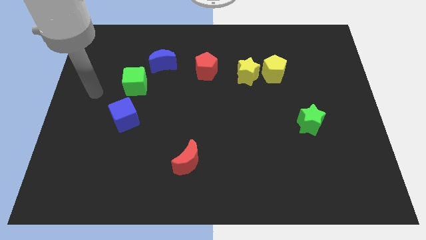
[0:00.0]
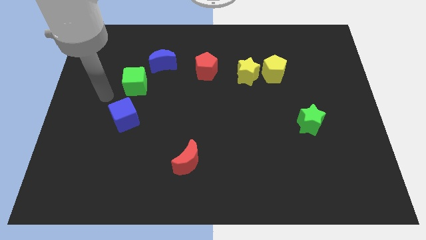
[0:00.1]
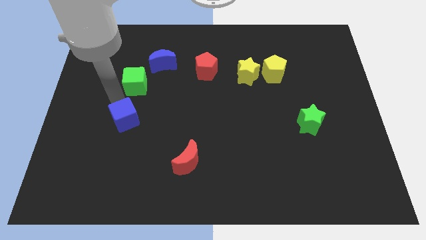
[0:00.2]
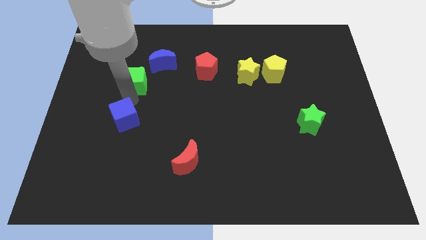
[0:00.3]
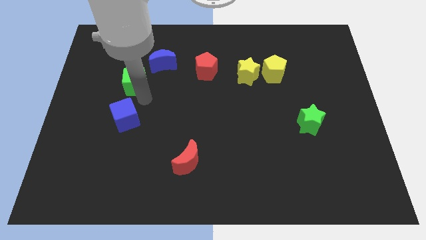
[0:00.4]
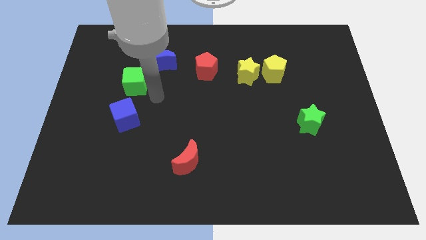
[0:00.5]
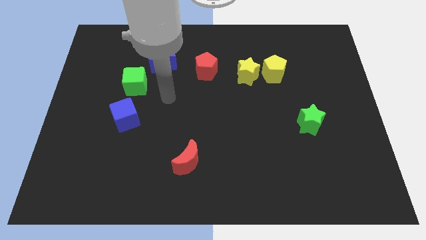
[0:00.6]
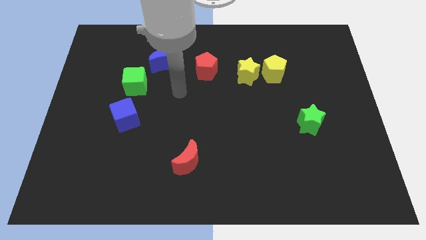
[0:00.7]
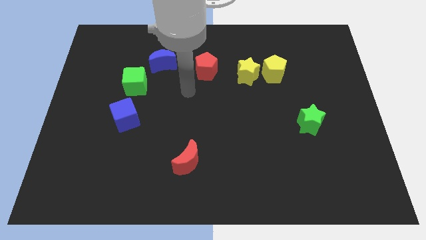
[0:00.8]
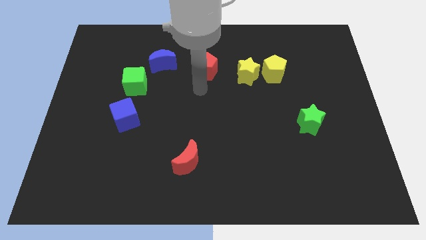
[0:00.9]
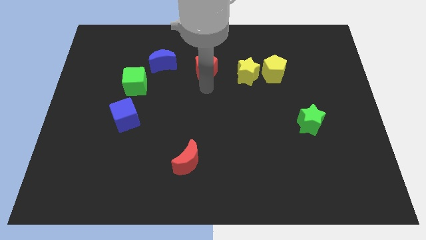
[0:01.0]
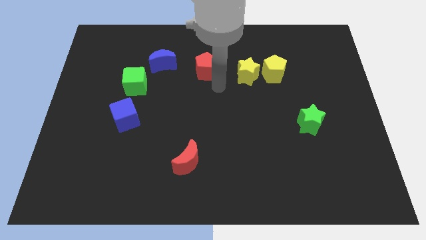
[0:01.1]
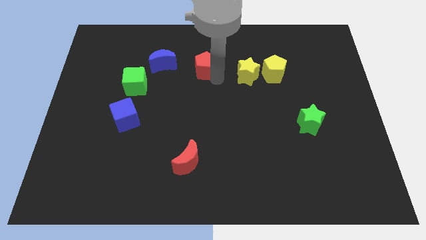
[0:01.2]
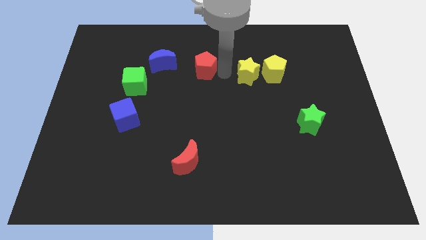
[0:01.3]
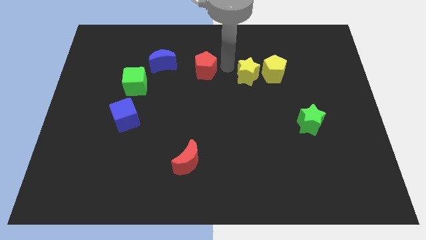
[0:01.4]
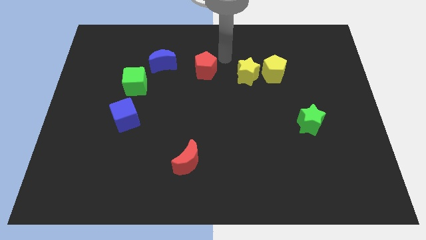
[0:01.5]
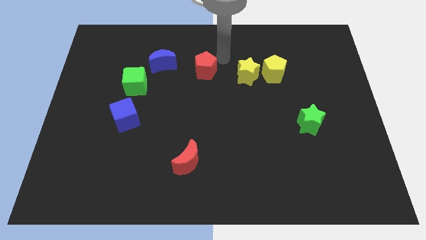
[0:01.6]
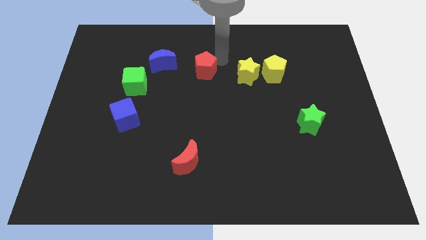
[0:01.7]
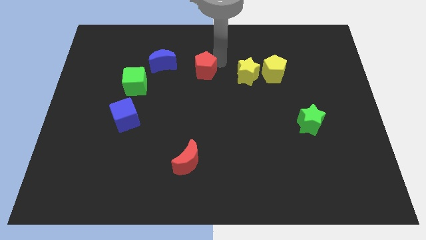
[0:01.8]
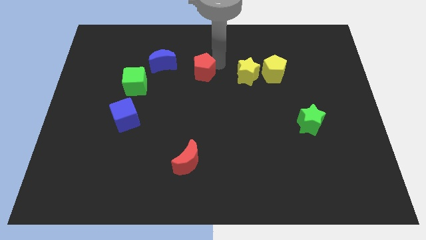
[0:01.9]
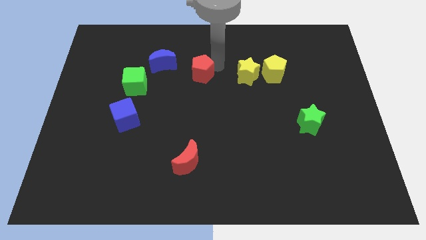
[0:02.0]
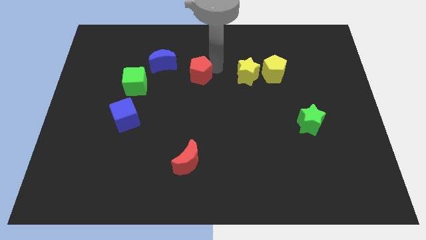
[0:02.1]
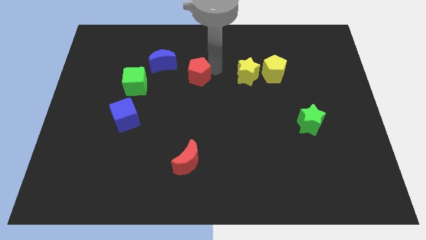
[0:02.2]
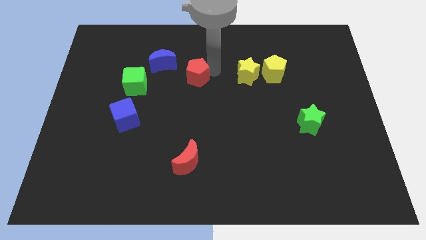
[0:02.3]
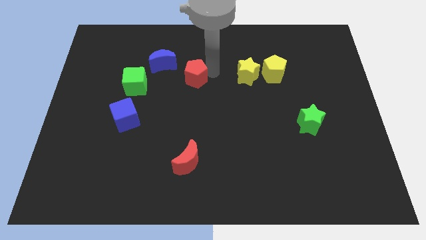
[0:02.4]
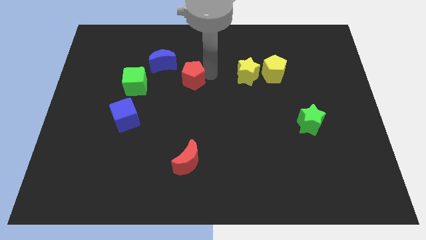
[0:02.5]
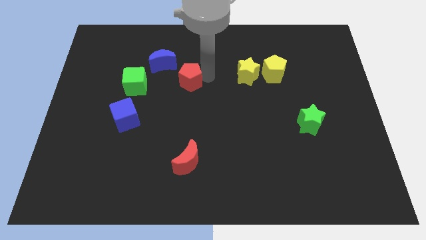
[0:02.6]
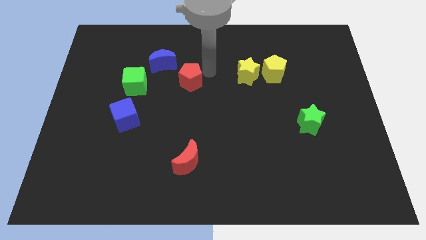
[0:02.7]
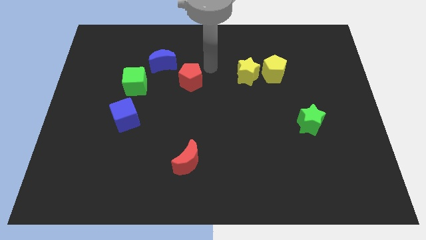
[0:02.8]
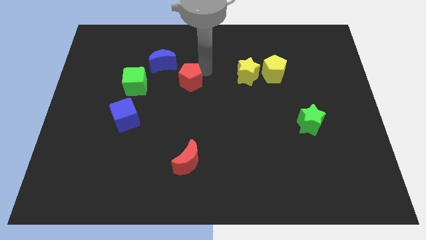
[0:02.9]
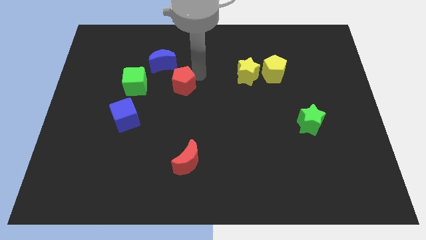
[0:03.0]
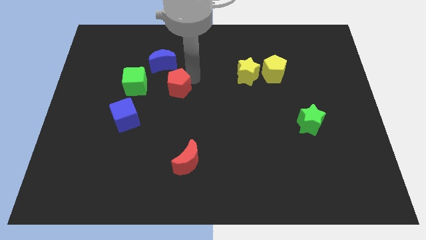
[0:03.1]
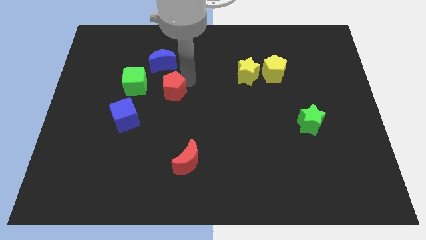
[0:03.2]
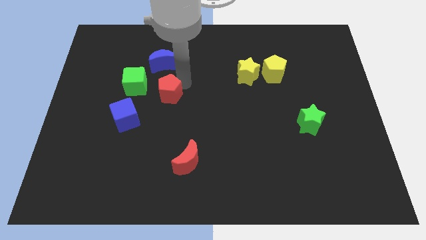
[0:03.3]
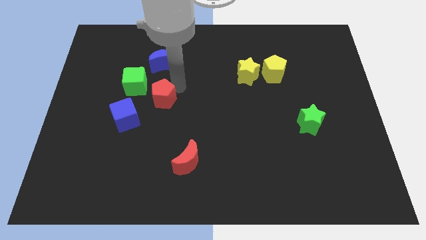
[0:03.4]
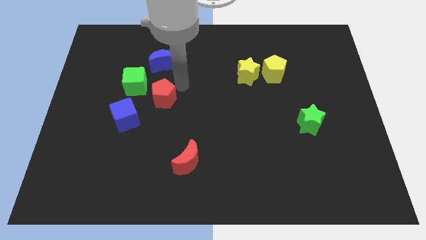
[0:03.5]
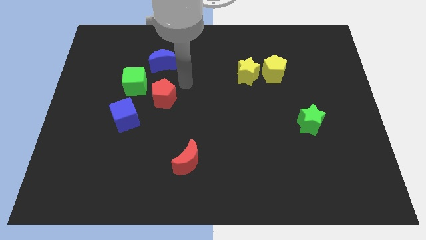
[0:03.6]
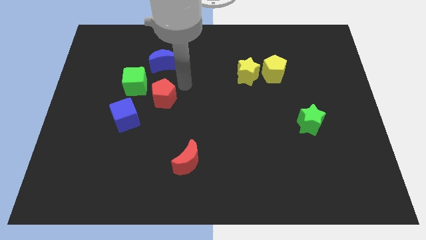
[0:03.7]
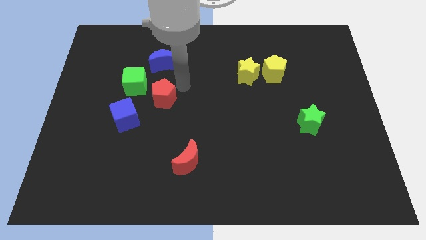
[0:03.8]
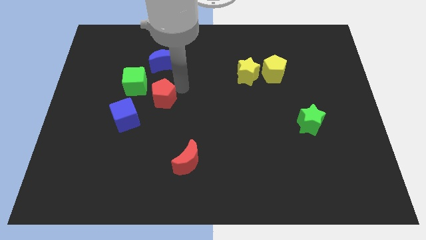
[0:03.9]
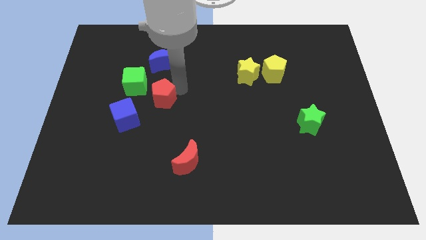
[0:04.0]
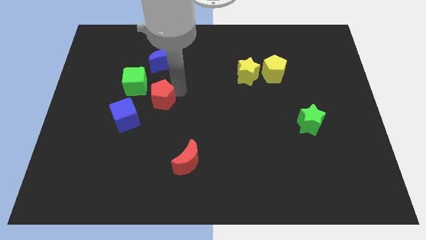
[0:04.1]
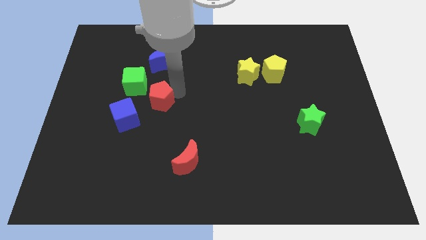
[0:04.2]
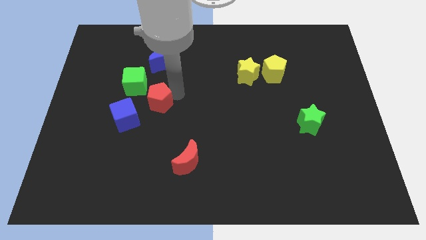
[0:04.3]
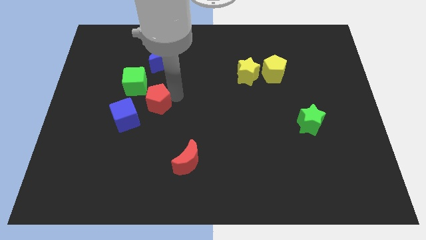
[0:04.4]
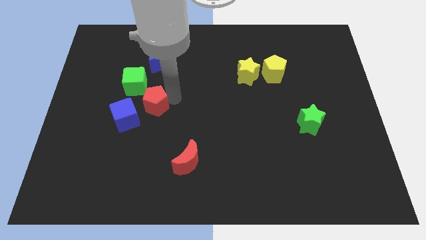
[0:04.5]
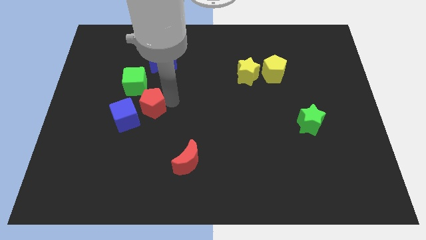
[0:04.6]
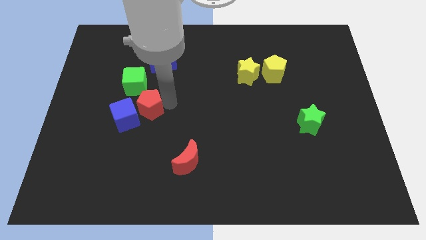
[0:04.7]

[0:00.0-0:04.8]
slide the red pentagon close to the blue cube

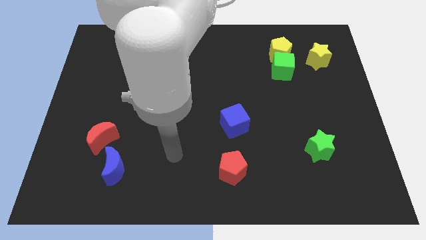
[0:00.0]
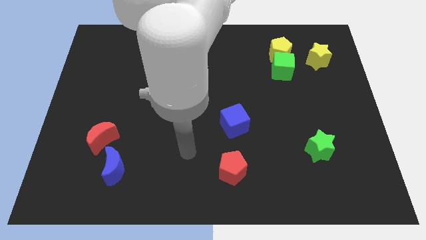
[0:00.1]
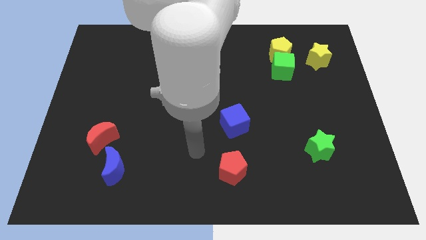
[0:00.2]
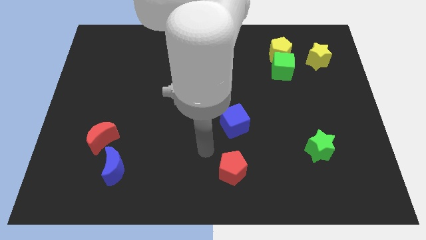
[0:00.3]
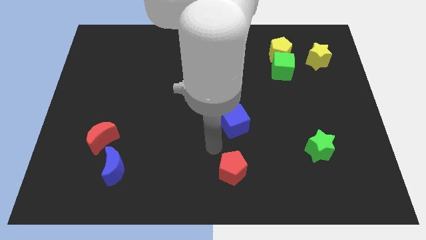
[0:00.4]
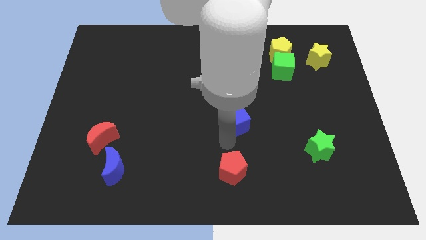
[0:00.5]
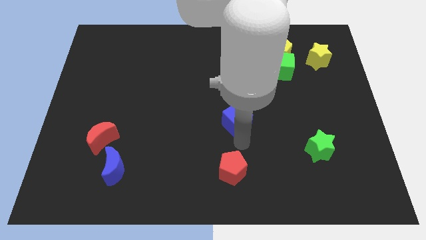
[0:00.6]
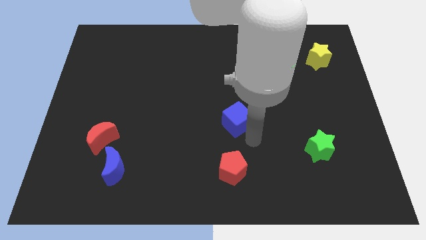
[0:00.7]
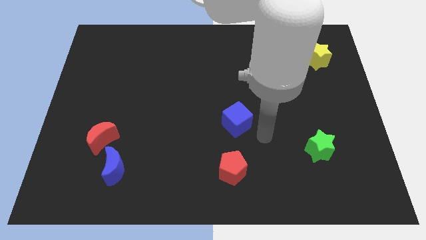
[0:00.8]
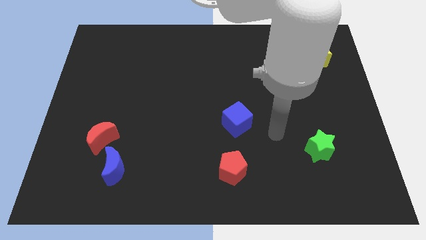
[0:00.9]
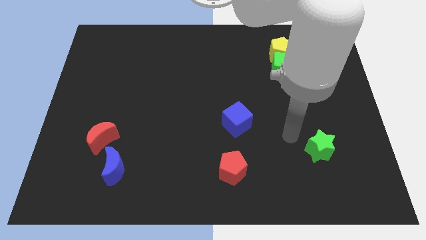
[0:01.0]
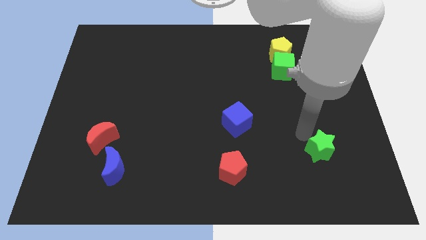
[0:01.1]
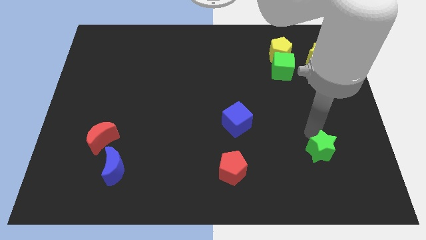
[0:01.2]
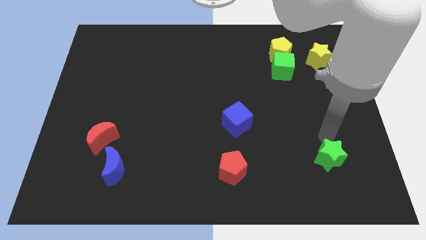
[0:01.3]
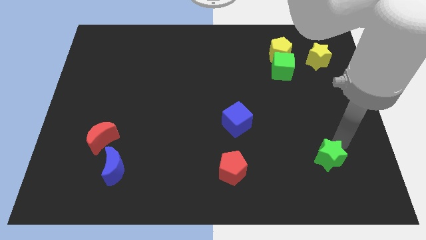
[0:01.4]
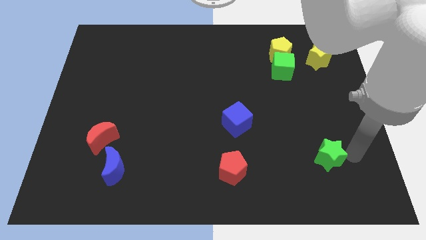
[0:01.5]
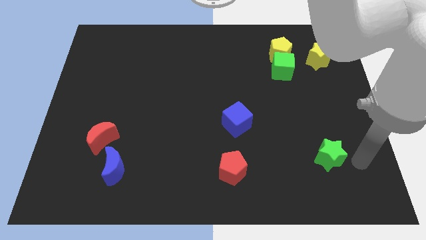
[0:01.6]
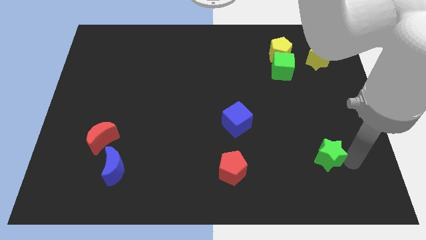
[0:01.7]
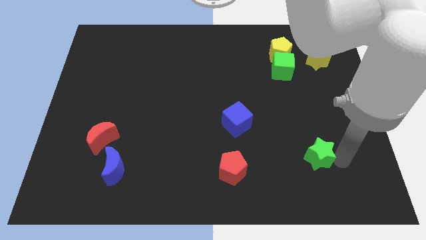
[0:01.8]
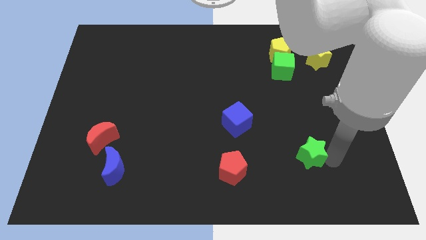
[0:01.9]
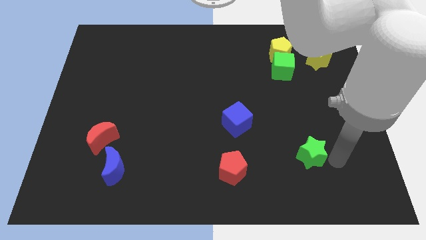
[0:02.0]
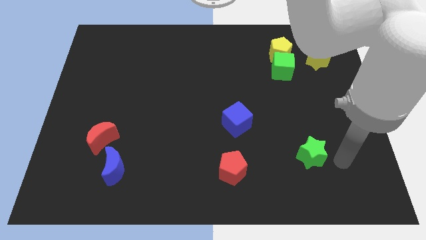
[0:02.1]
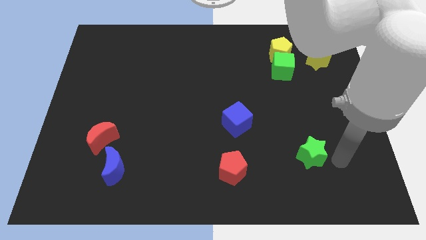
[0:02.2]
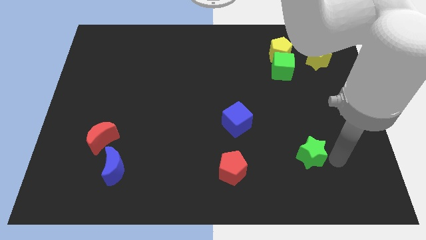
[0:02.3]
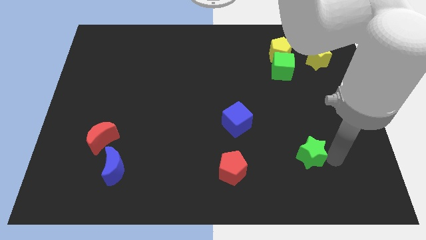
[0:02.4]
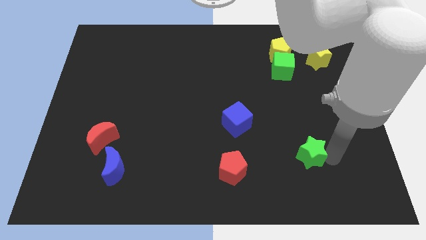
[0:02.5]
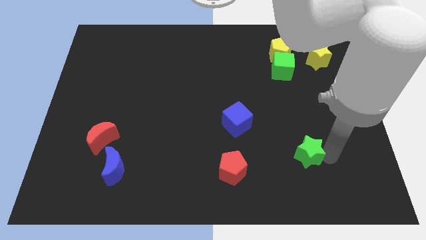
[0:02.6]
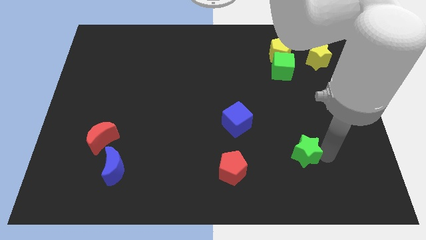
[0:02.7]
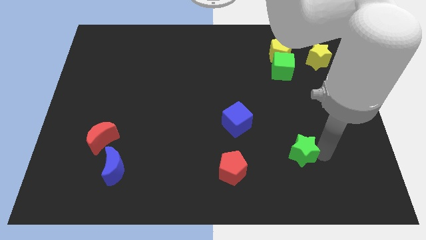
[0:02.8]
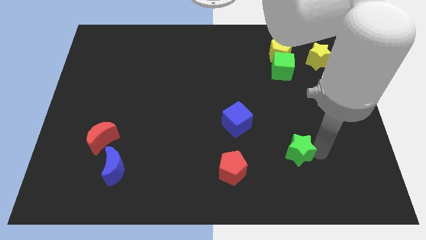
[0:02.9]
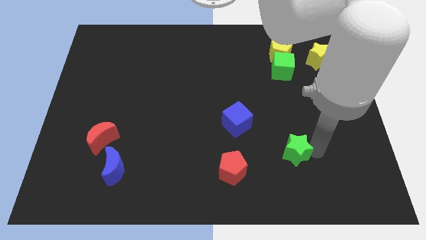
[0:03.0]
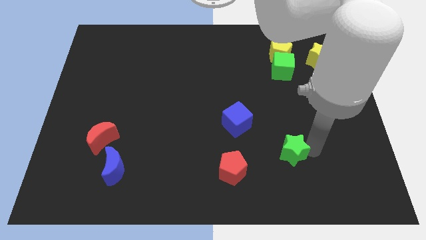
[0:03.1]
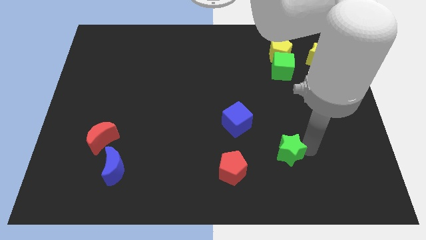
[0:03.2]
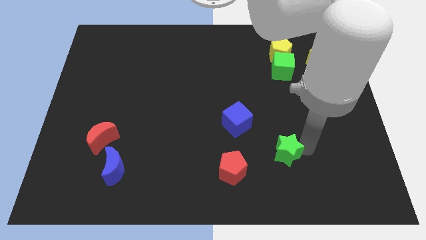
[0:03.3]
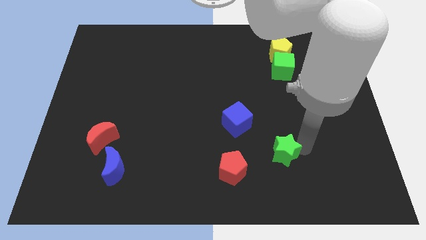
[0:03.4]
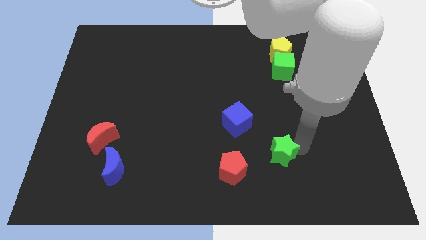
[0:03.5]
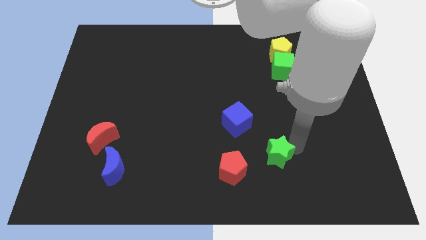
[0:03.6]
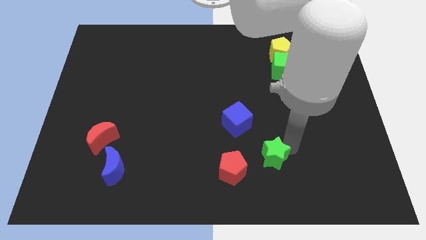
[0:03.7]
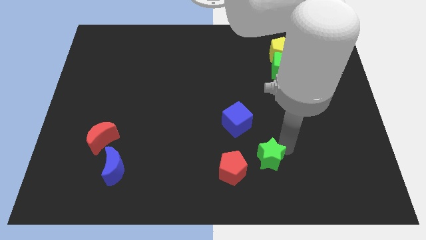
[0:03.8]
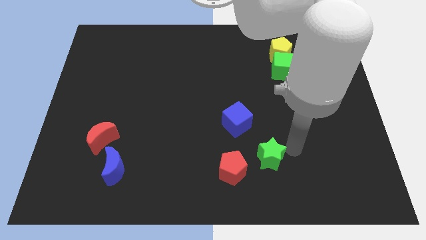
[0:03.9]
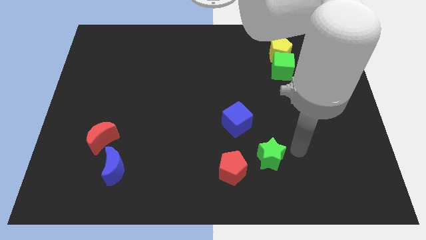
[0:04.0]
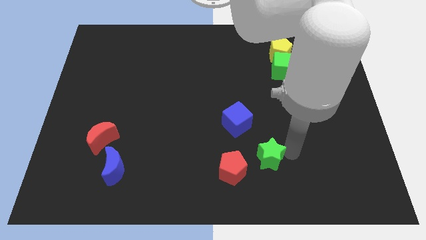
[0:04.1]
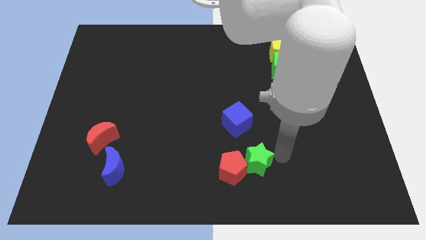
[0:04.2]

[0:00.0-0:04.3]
push the green star close to the red pentagon
